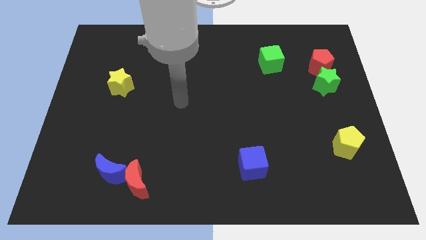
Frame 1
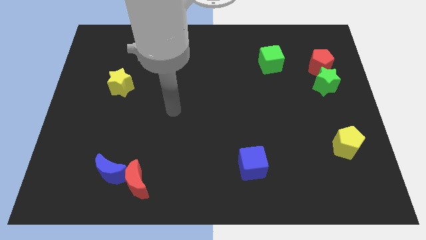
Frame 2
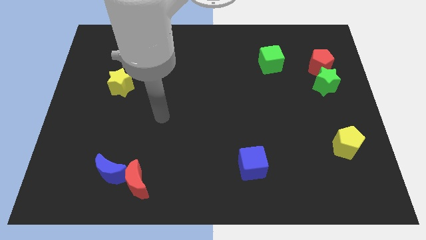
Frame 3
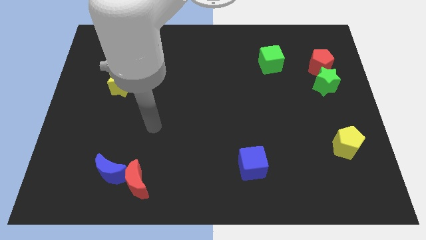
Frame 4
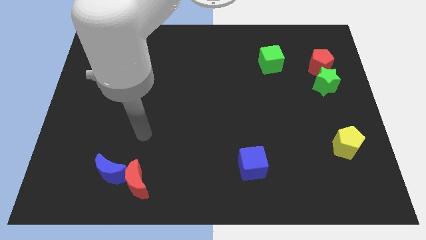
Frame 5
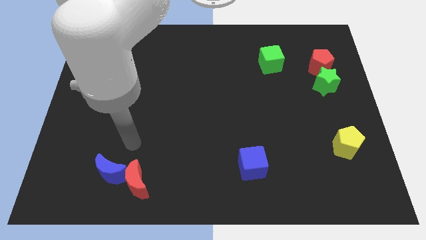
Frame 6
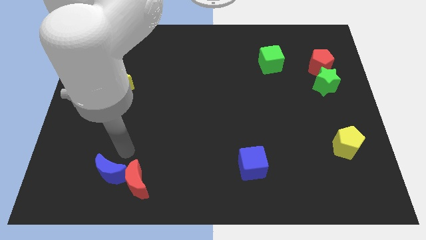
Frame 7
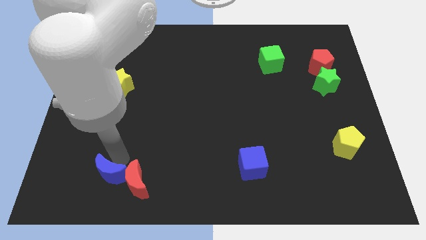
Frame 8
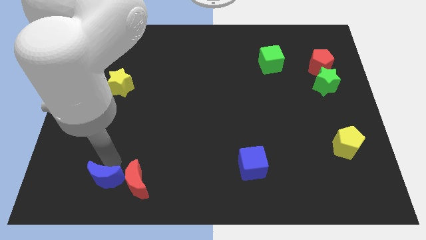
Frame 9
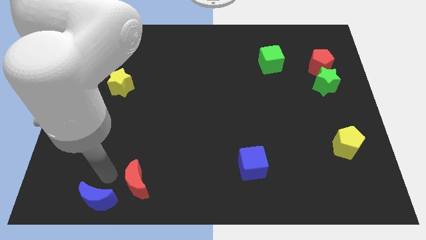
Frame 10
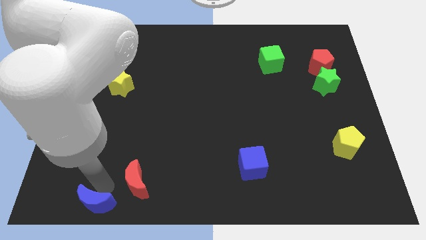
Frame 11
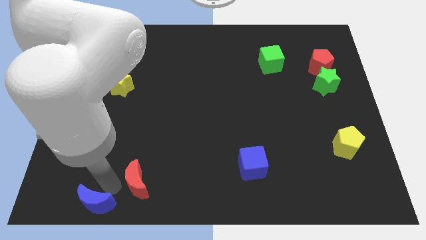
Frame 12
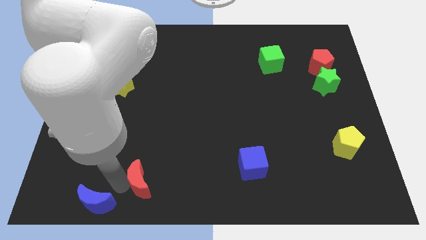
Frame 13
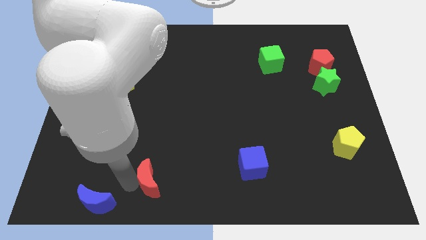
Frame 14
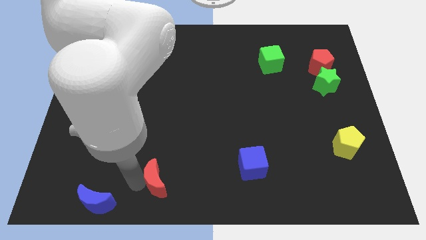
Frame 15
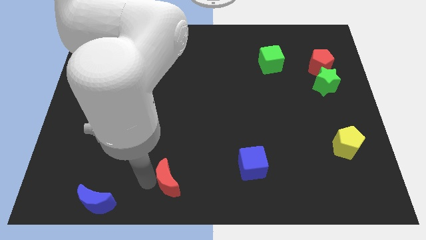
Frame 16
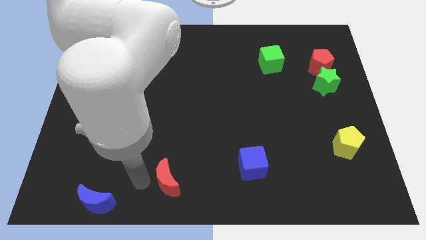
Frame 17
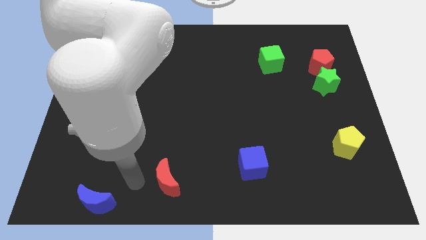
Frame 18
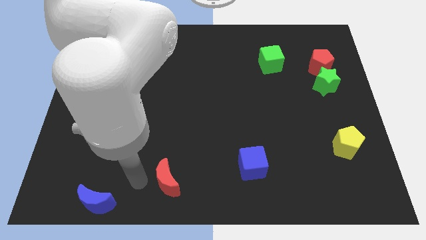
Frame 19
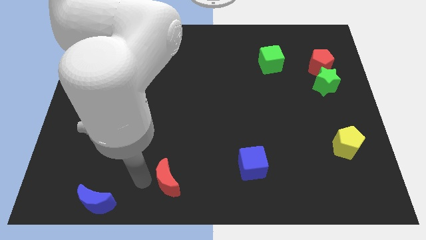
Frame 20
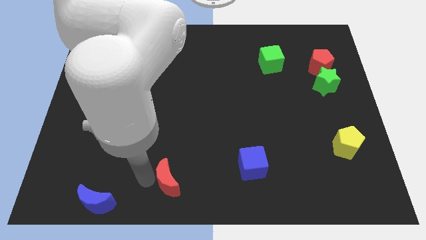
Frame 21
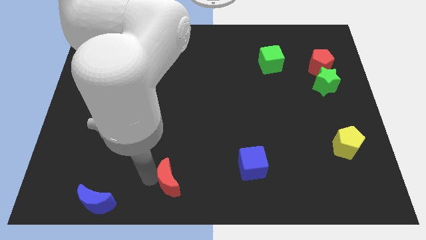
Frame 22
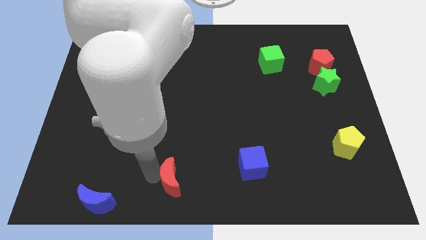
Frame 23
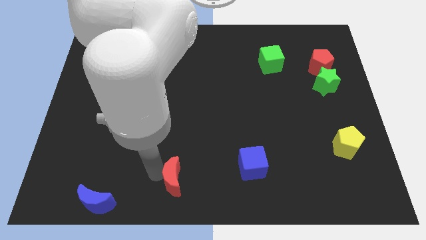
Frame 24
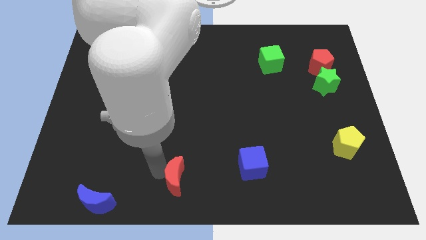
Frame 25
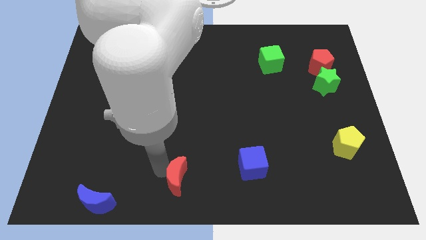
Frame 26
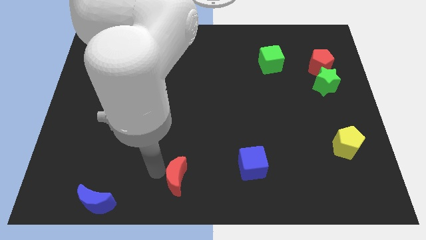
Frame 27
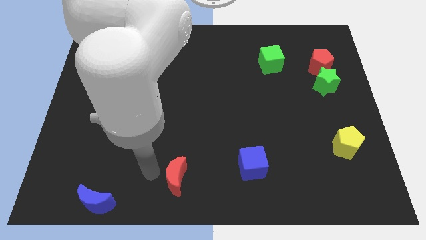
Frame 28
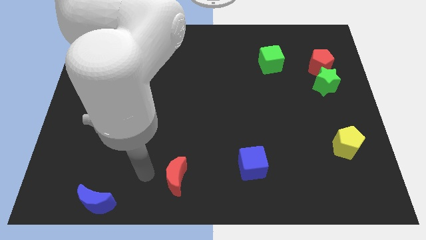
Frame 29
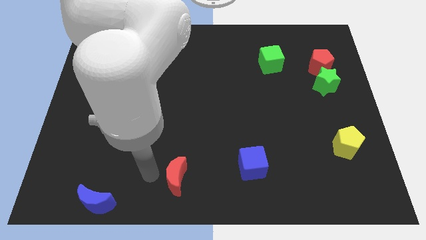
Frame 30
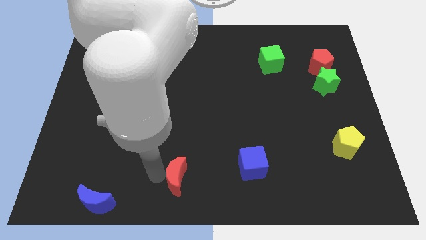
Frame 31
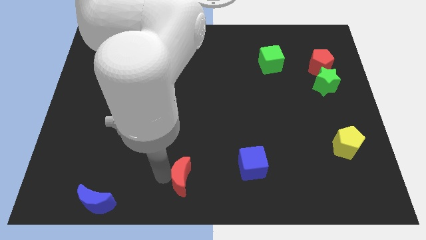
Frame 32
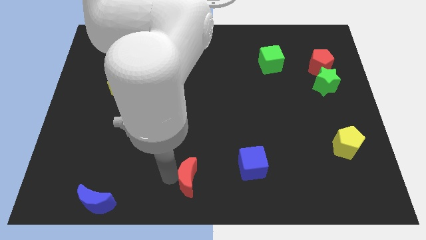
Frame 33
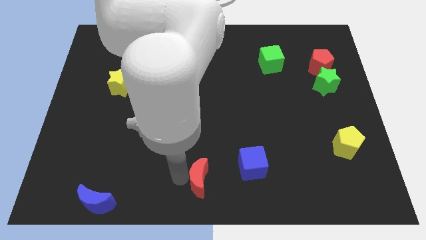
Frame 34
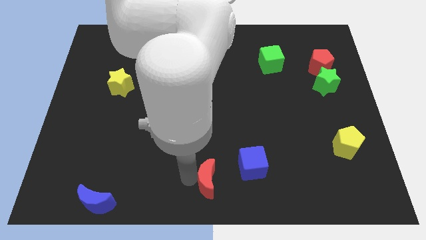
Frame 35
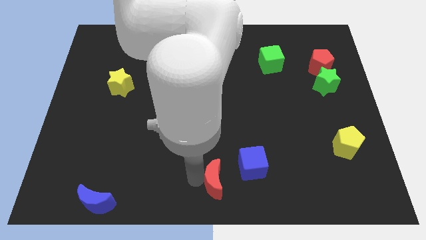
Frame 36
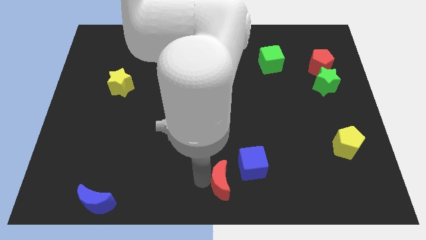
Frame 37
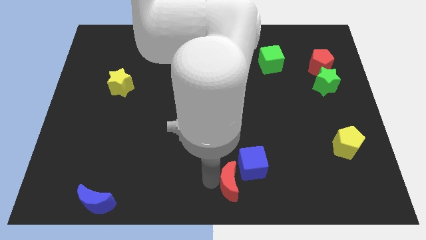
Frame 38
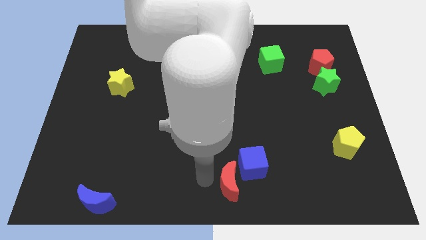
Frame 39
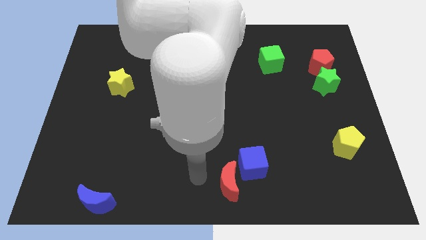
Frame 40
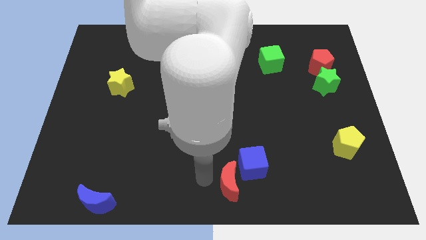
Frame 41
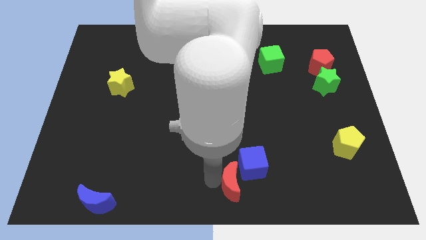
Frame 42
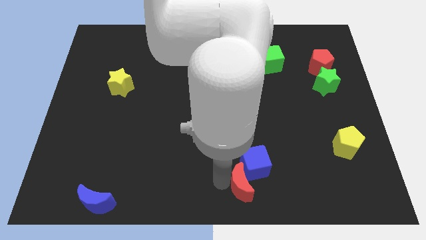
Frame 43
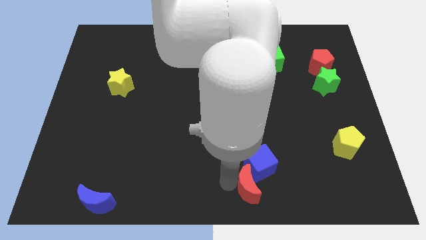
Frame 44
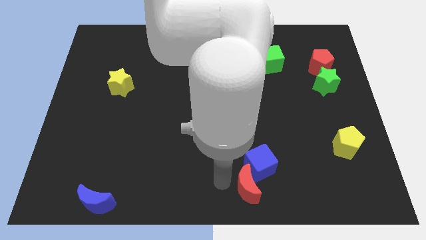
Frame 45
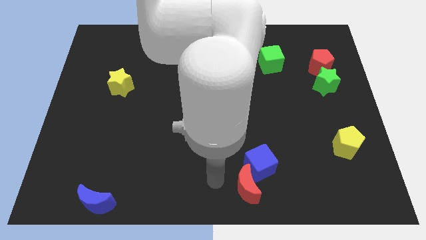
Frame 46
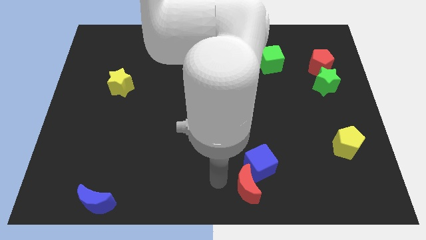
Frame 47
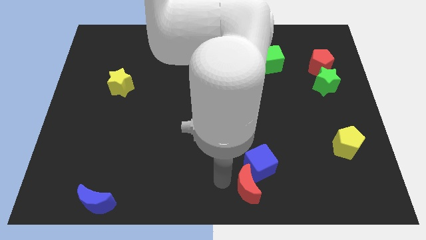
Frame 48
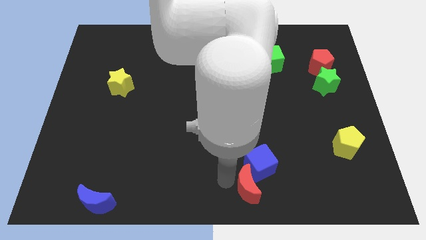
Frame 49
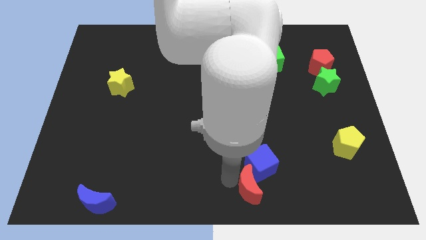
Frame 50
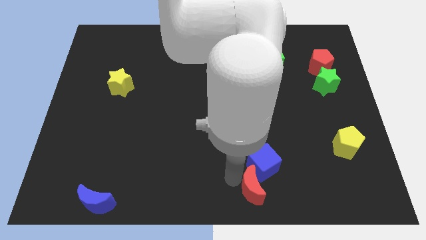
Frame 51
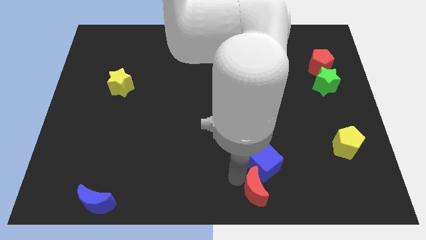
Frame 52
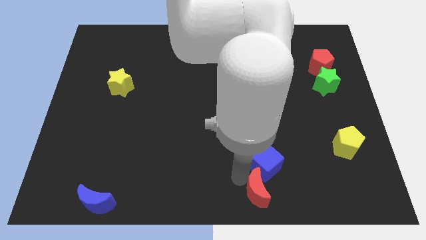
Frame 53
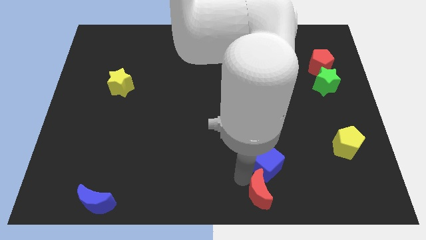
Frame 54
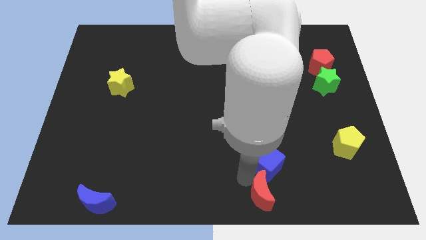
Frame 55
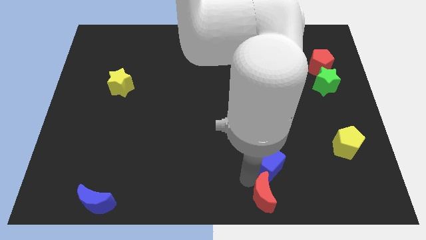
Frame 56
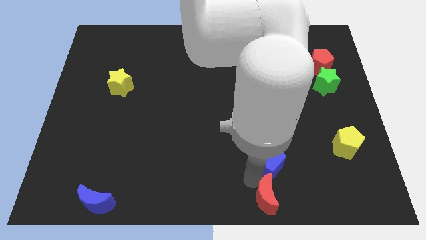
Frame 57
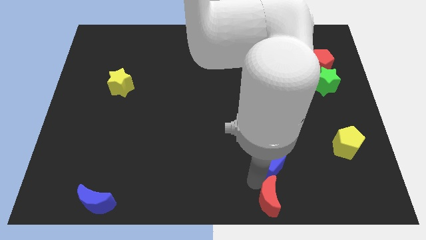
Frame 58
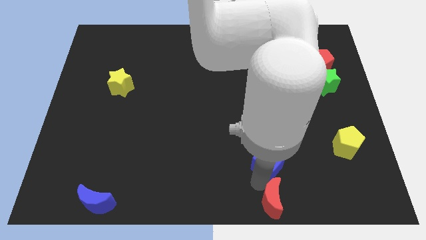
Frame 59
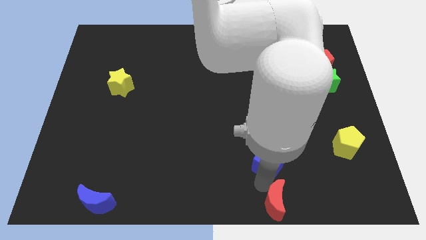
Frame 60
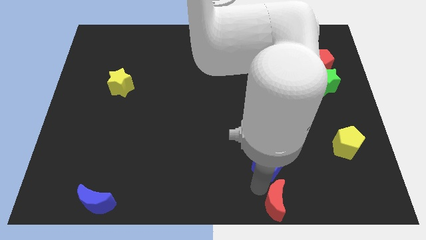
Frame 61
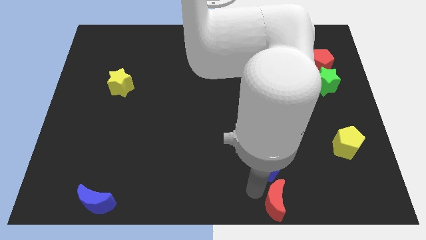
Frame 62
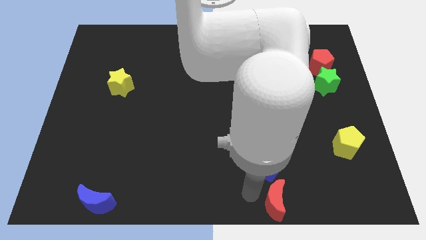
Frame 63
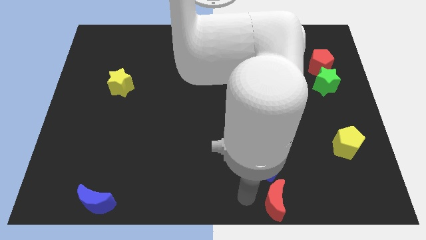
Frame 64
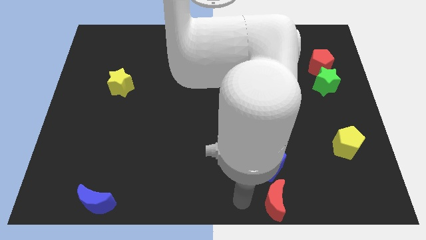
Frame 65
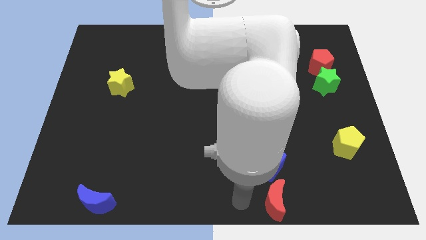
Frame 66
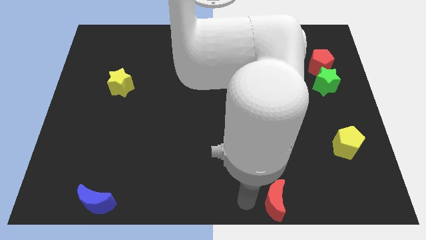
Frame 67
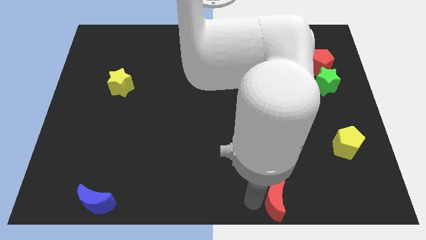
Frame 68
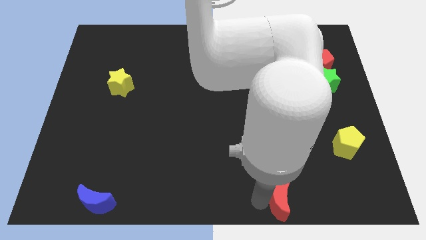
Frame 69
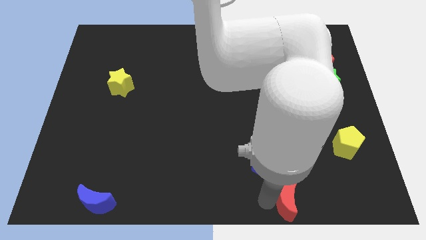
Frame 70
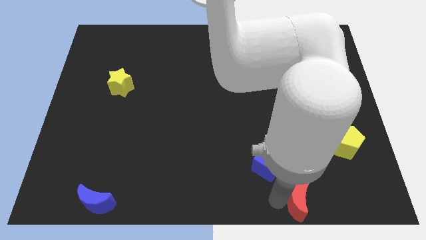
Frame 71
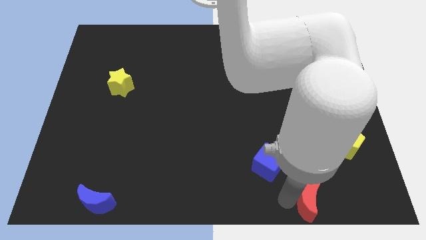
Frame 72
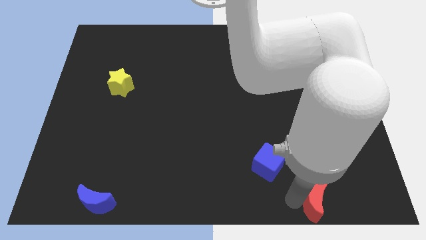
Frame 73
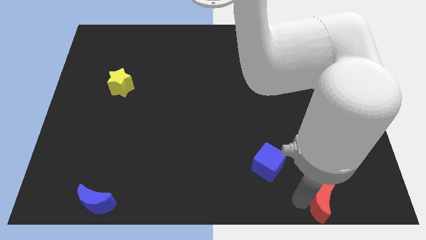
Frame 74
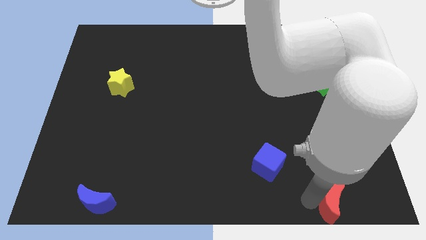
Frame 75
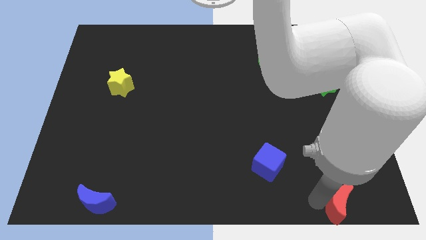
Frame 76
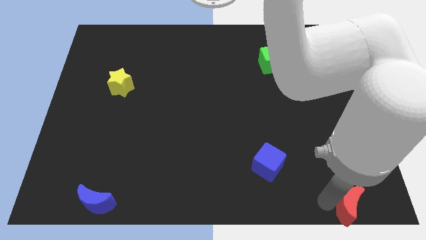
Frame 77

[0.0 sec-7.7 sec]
push the red moon to the bottom right of the board
